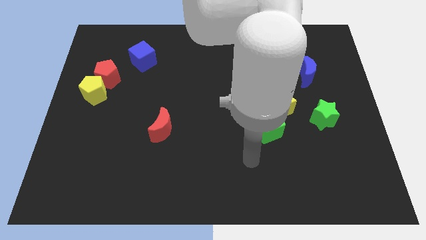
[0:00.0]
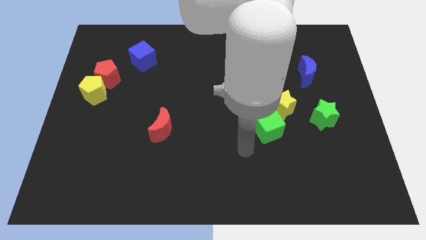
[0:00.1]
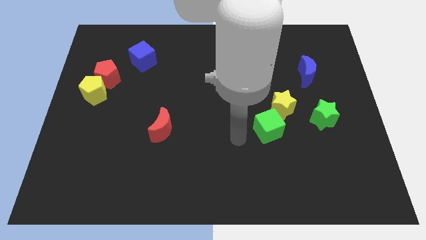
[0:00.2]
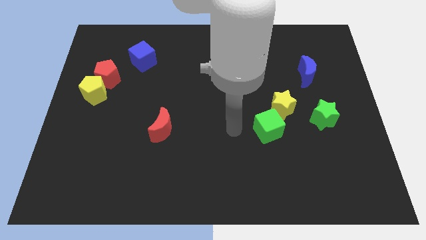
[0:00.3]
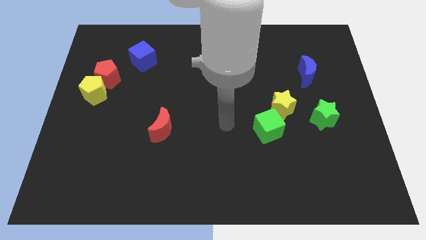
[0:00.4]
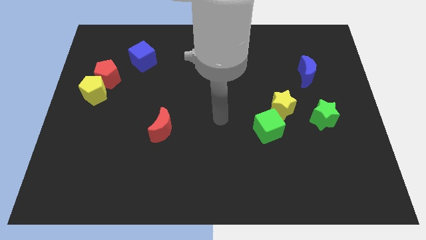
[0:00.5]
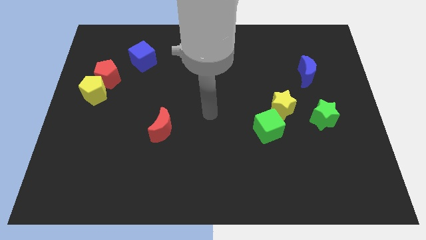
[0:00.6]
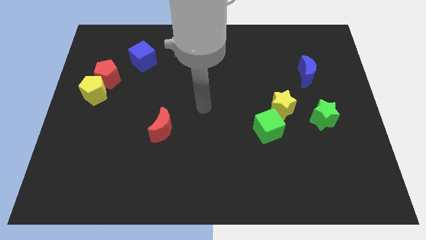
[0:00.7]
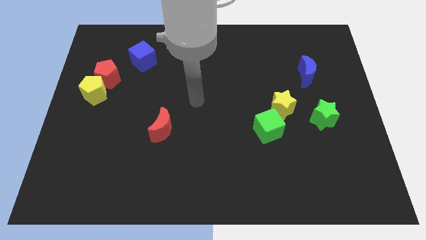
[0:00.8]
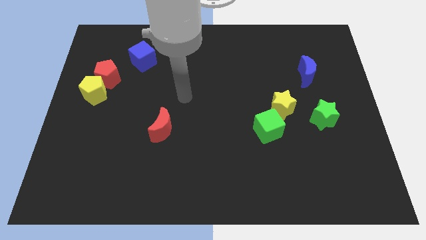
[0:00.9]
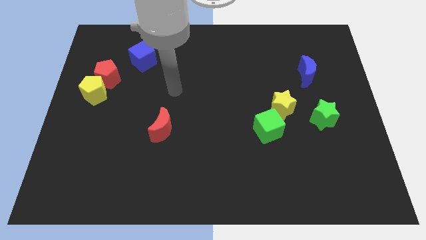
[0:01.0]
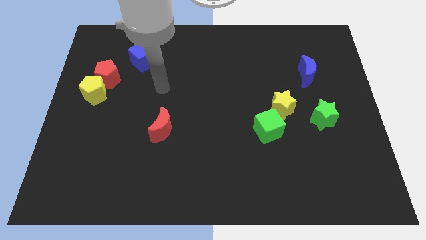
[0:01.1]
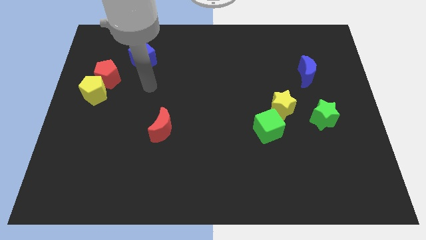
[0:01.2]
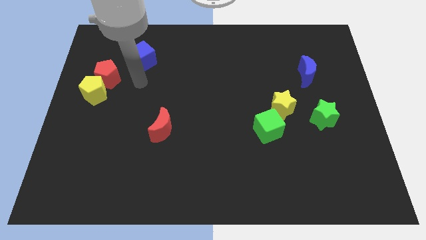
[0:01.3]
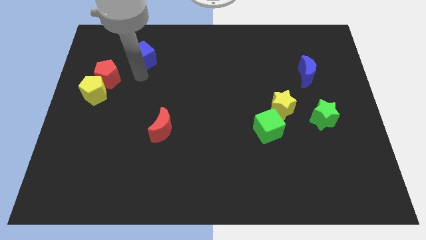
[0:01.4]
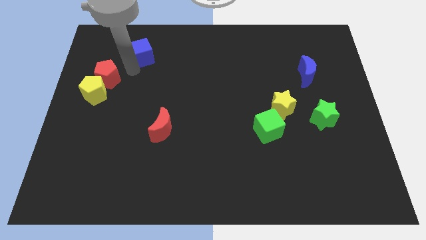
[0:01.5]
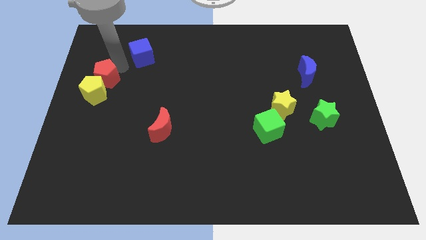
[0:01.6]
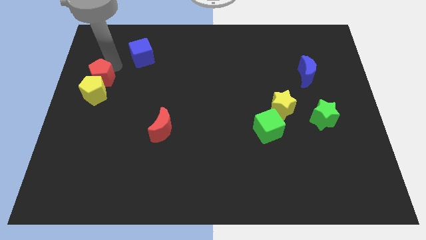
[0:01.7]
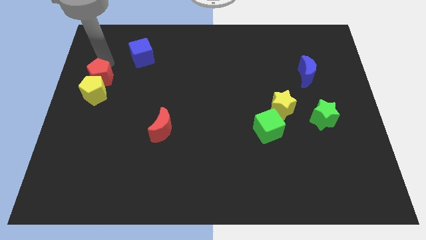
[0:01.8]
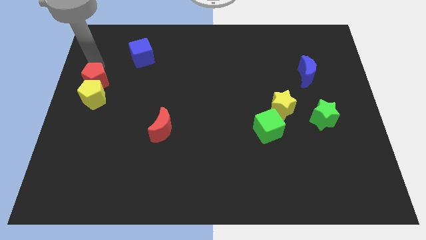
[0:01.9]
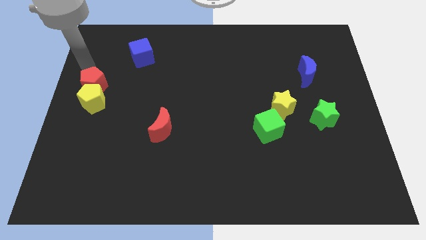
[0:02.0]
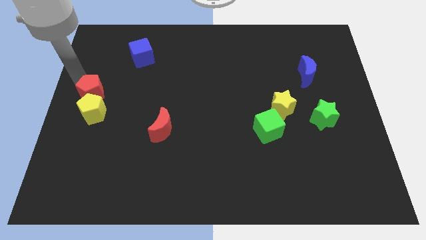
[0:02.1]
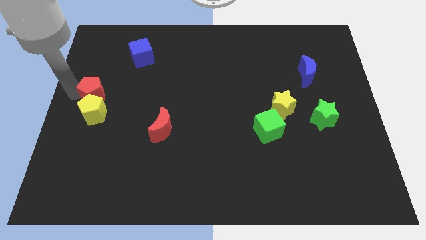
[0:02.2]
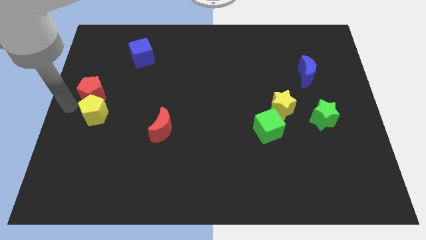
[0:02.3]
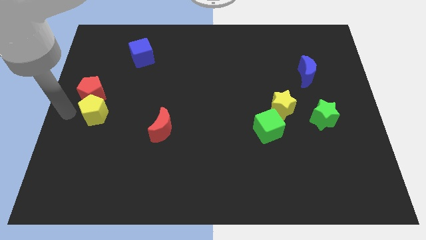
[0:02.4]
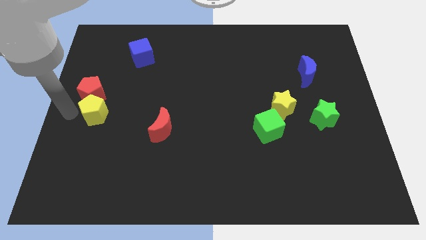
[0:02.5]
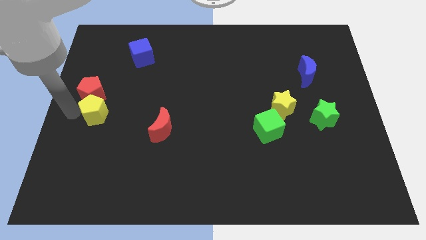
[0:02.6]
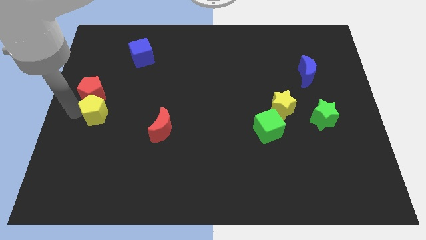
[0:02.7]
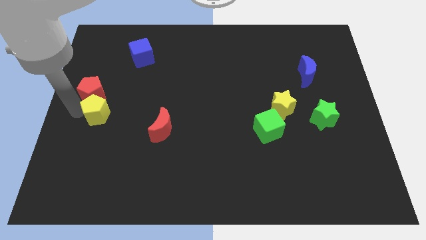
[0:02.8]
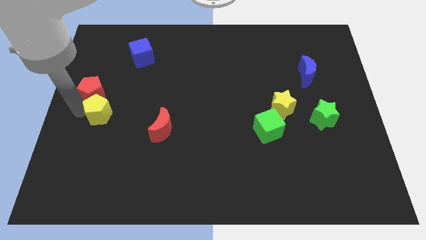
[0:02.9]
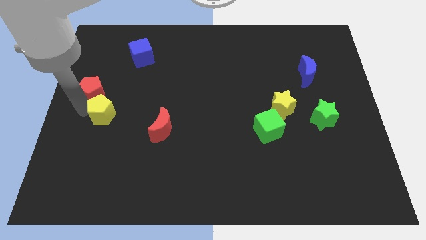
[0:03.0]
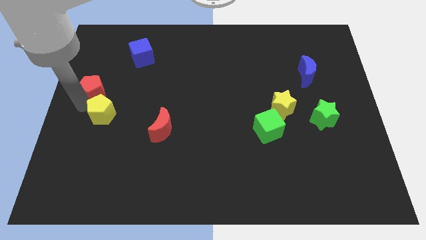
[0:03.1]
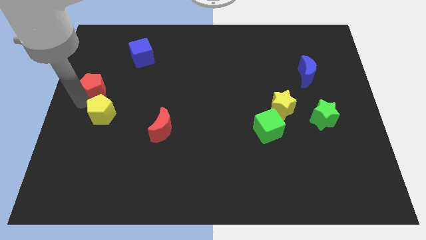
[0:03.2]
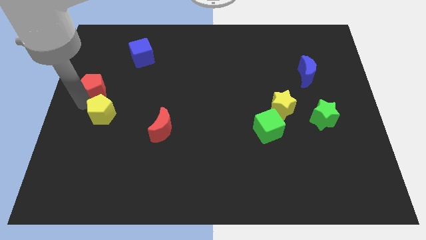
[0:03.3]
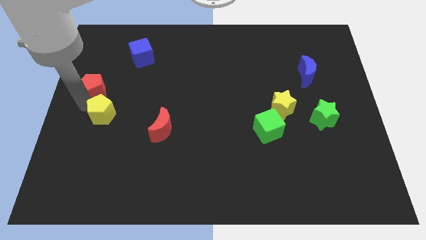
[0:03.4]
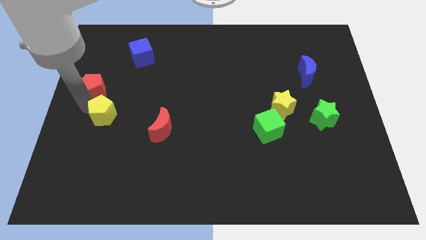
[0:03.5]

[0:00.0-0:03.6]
slide the yellow pentagon a bit down and then right

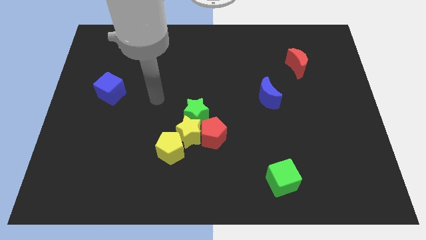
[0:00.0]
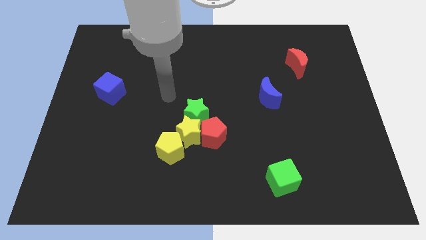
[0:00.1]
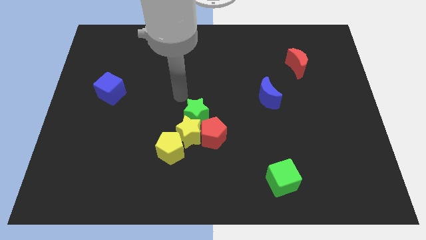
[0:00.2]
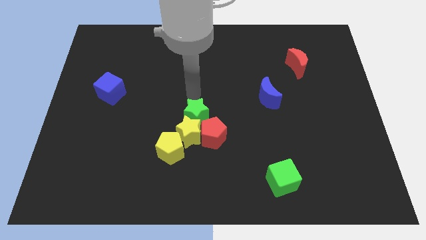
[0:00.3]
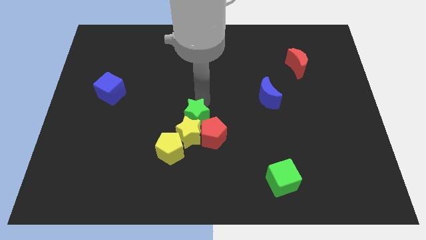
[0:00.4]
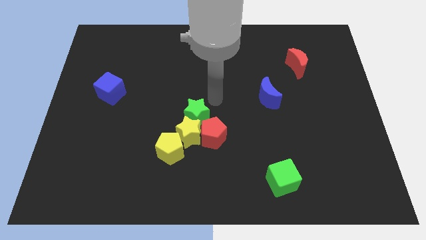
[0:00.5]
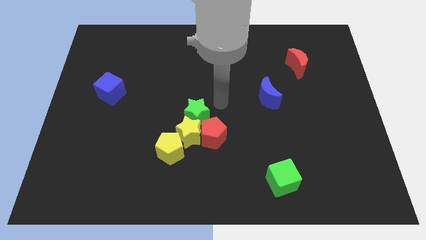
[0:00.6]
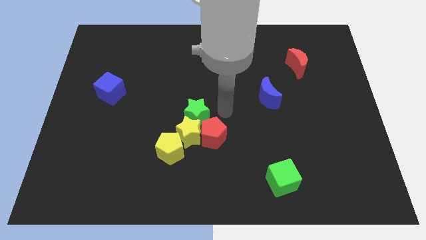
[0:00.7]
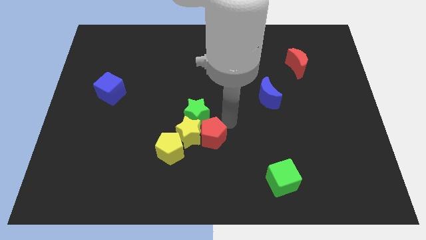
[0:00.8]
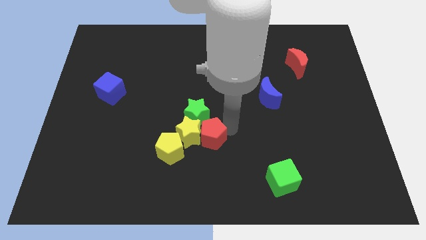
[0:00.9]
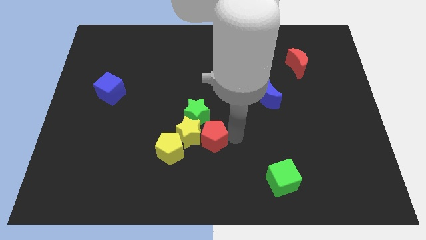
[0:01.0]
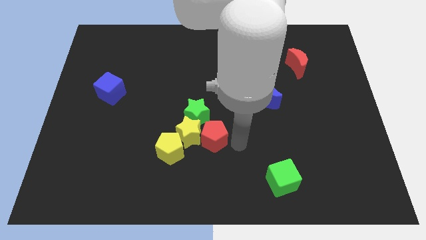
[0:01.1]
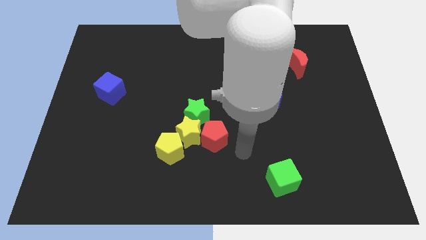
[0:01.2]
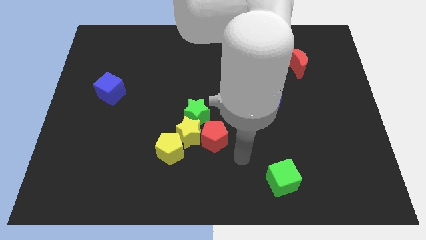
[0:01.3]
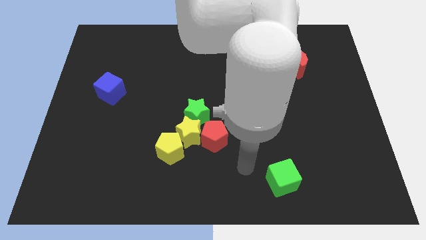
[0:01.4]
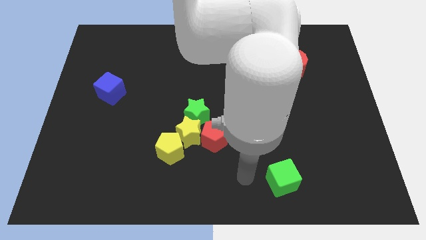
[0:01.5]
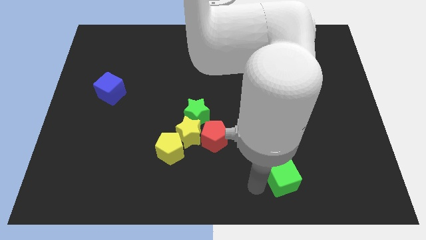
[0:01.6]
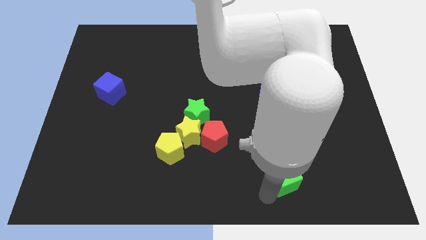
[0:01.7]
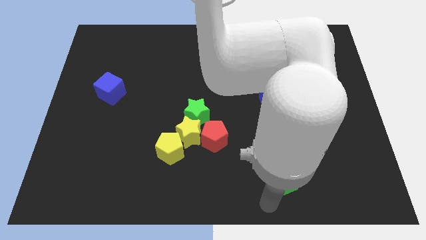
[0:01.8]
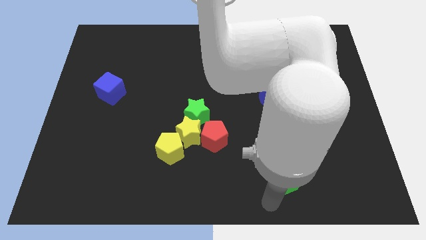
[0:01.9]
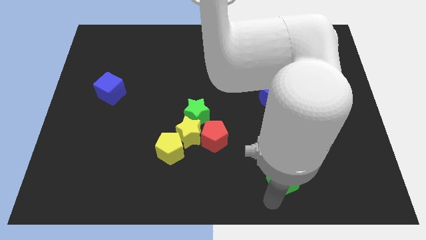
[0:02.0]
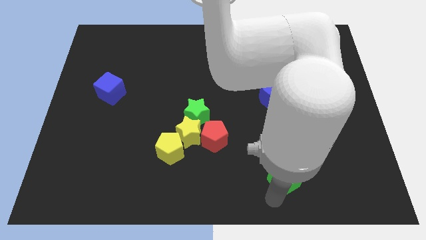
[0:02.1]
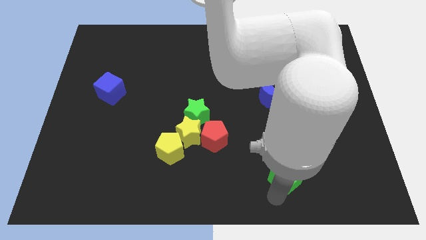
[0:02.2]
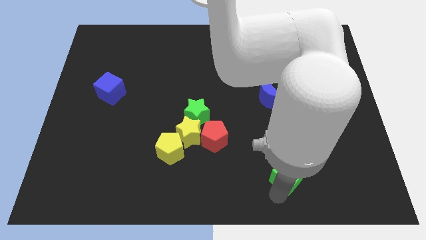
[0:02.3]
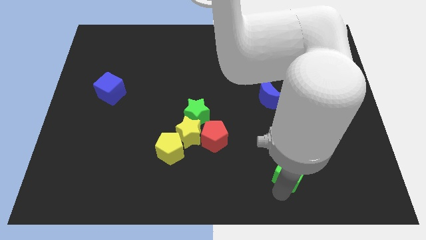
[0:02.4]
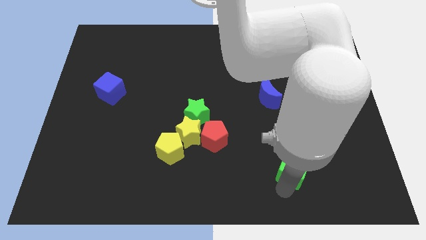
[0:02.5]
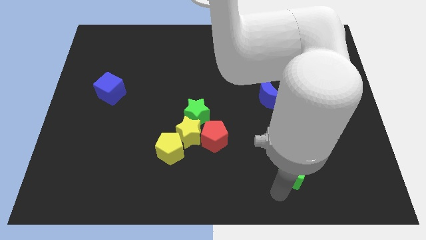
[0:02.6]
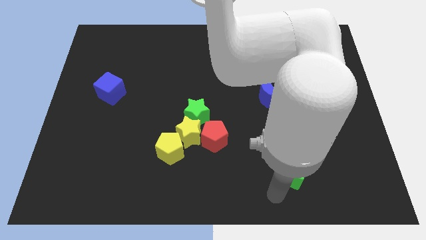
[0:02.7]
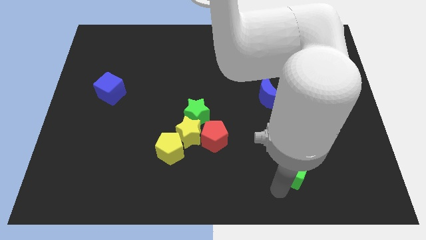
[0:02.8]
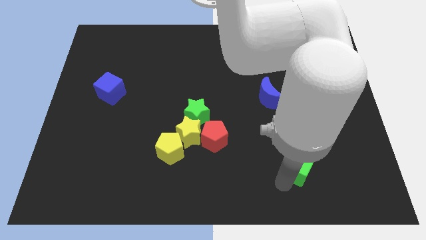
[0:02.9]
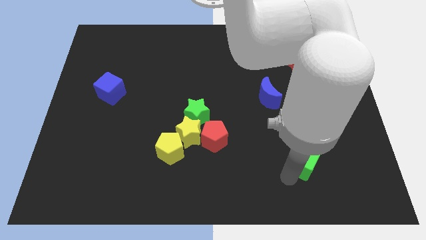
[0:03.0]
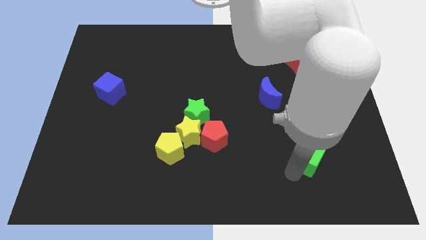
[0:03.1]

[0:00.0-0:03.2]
move the green cube upwards and right slightly

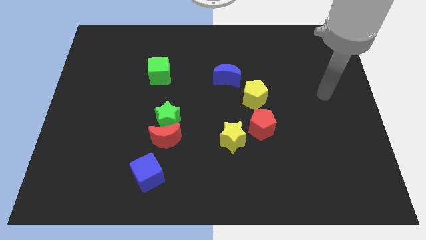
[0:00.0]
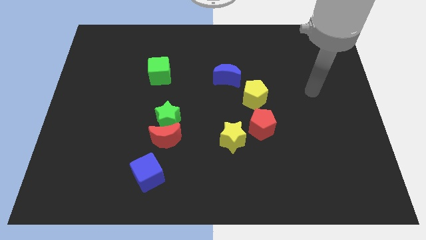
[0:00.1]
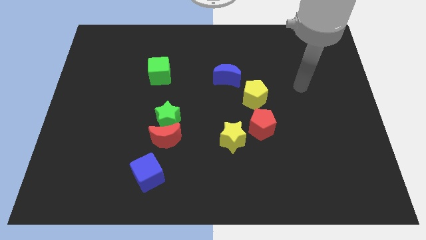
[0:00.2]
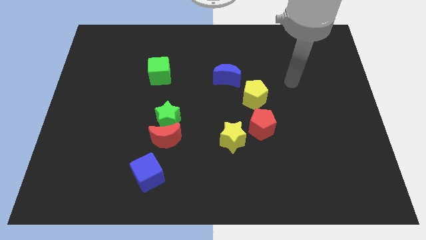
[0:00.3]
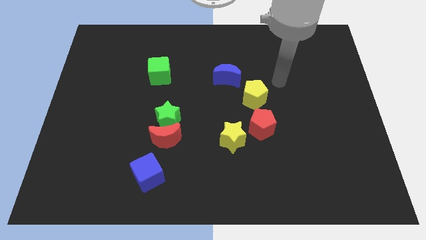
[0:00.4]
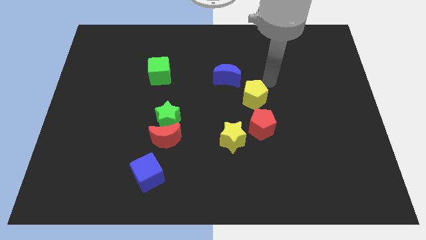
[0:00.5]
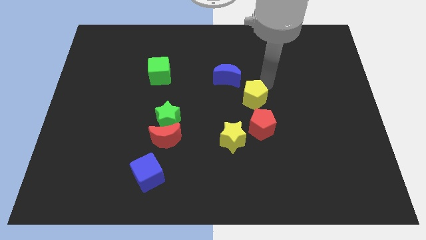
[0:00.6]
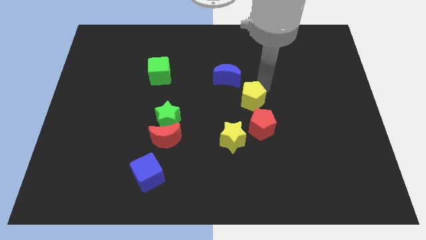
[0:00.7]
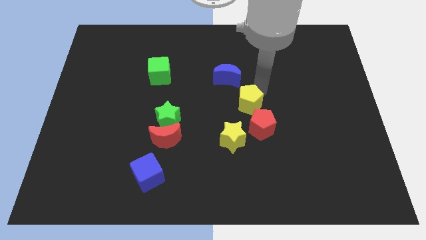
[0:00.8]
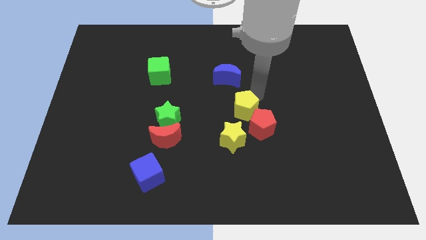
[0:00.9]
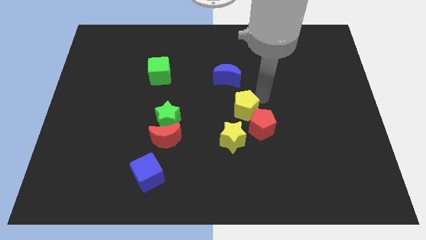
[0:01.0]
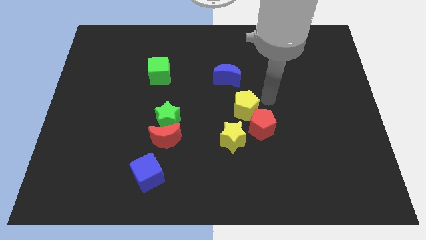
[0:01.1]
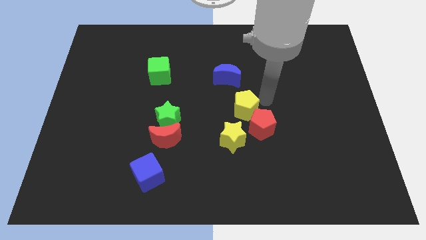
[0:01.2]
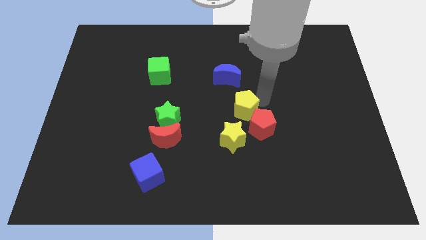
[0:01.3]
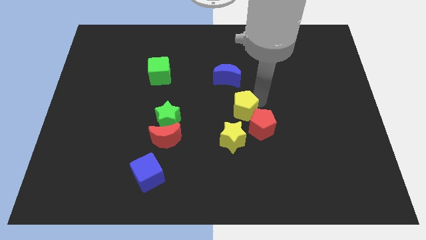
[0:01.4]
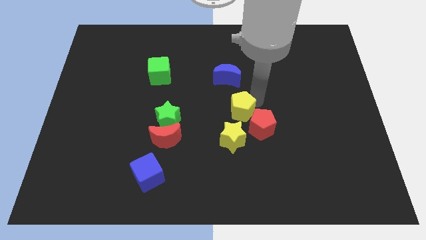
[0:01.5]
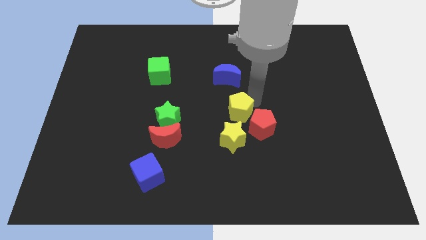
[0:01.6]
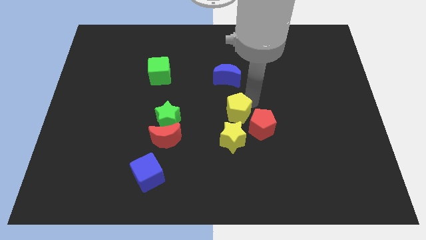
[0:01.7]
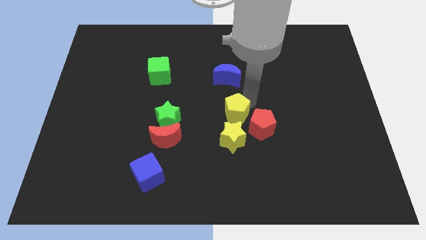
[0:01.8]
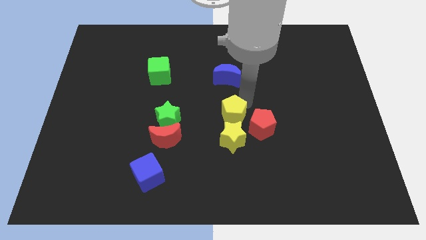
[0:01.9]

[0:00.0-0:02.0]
push the yellow pentagon somewhat downwards and then left
